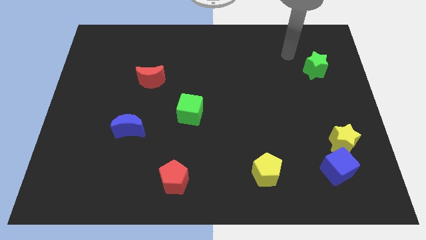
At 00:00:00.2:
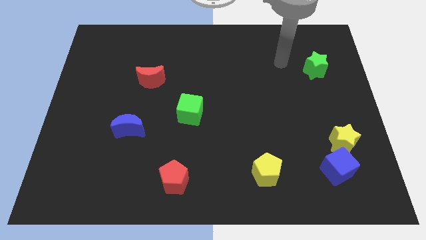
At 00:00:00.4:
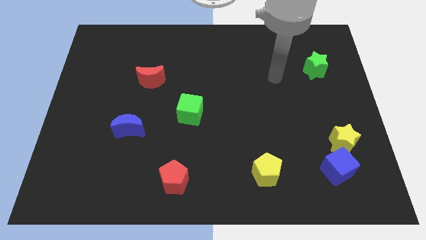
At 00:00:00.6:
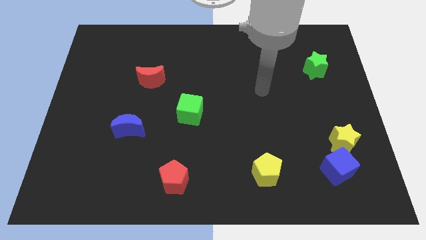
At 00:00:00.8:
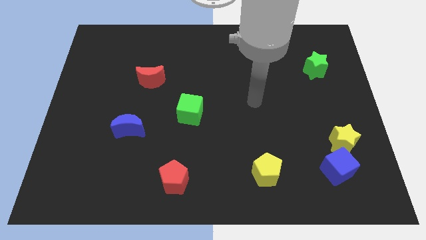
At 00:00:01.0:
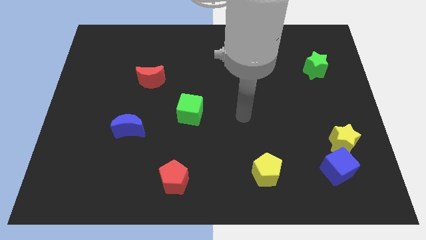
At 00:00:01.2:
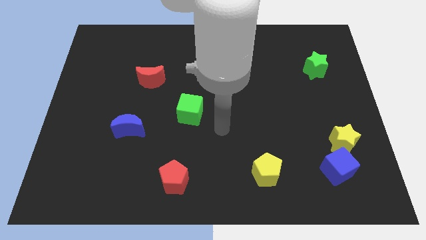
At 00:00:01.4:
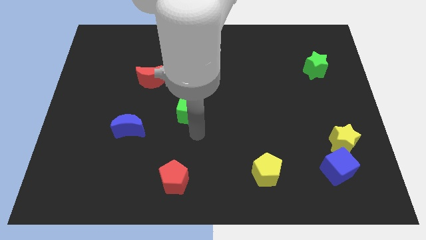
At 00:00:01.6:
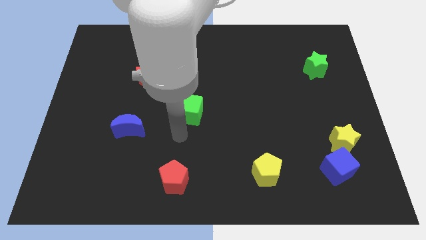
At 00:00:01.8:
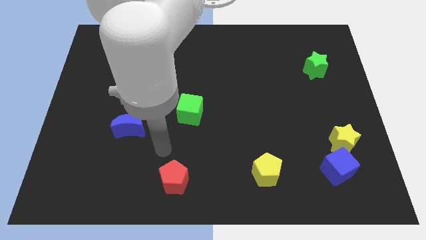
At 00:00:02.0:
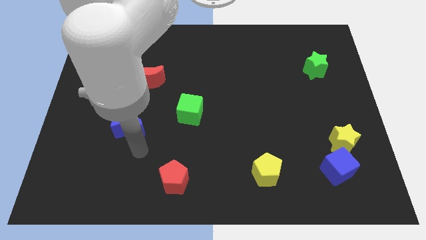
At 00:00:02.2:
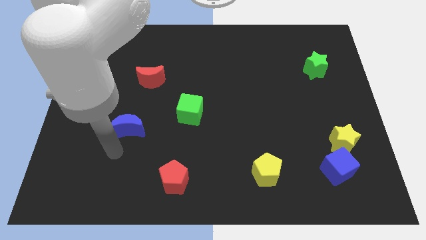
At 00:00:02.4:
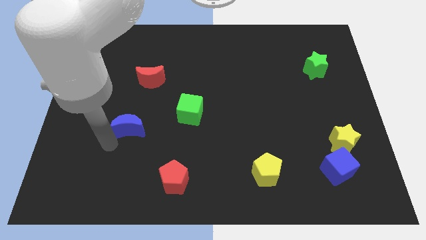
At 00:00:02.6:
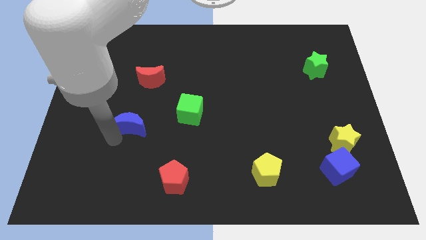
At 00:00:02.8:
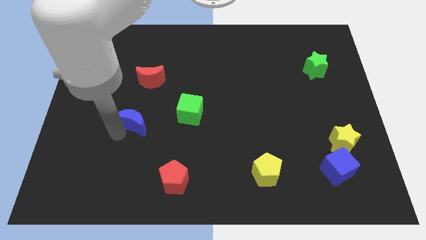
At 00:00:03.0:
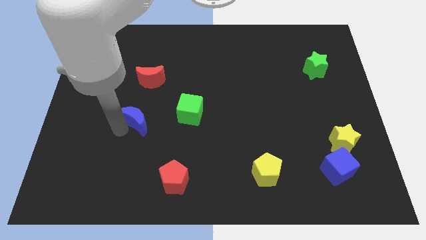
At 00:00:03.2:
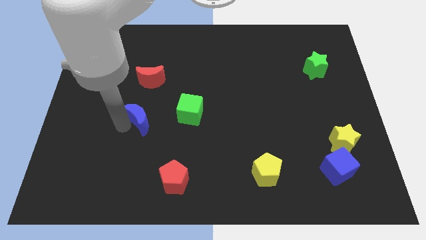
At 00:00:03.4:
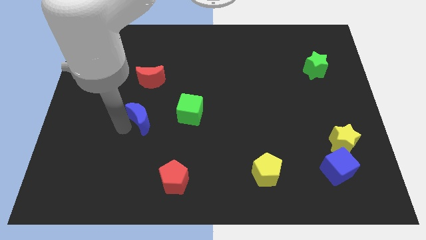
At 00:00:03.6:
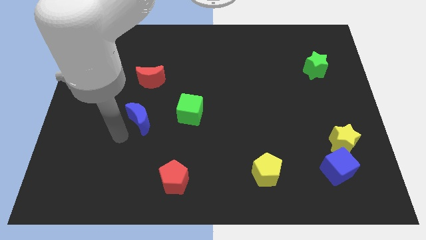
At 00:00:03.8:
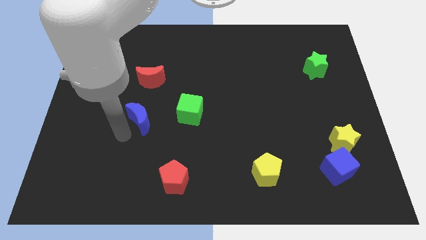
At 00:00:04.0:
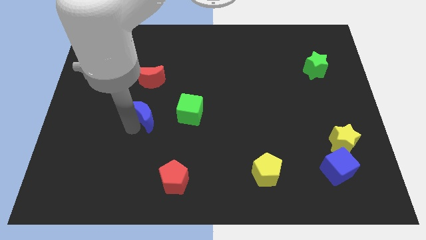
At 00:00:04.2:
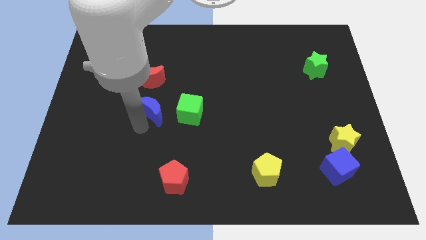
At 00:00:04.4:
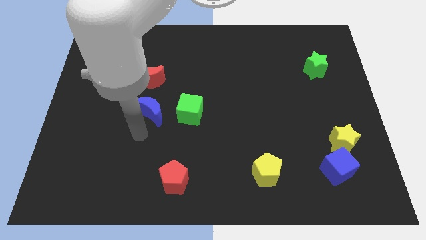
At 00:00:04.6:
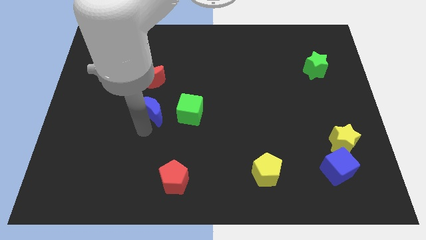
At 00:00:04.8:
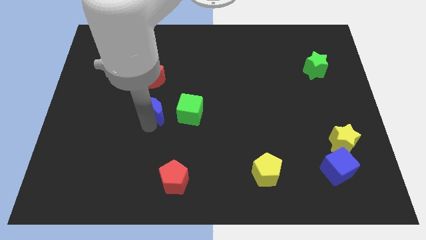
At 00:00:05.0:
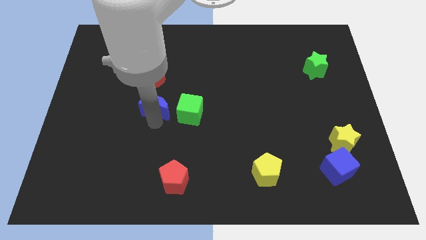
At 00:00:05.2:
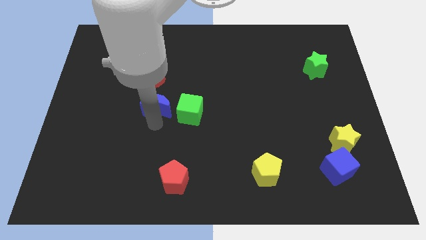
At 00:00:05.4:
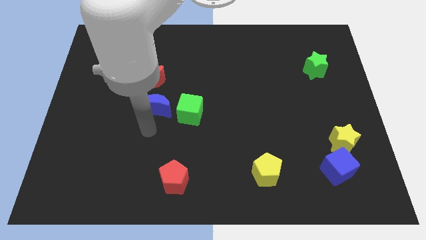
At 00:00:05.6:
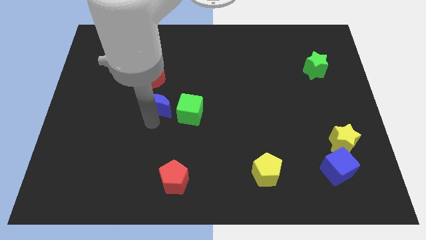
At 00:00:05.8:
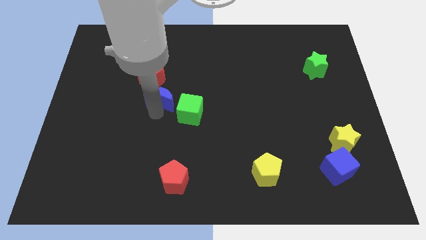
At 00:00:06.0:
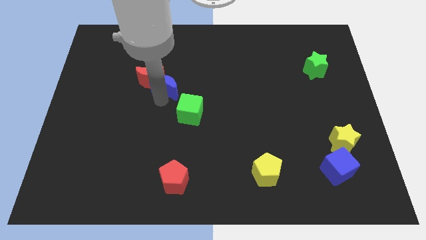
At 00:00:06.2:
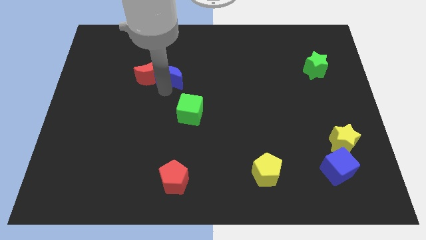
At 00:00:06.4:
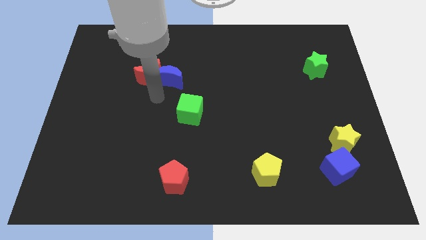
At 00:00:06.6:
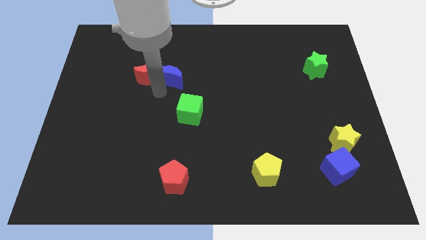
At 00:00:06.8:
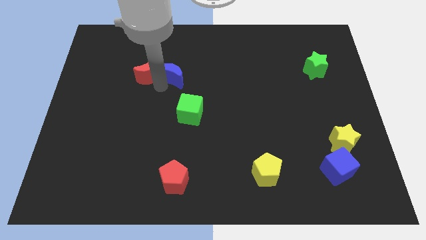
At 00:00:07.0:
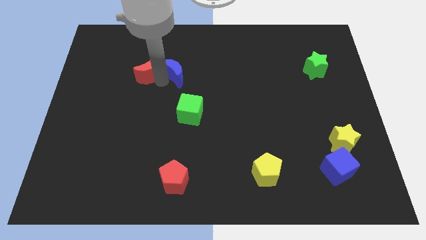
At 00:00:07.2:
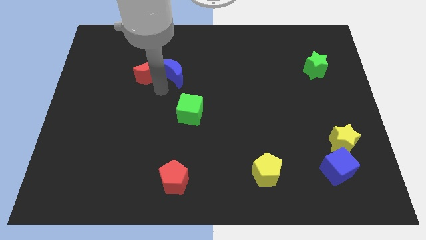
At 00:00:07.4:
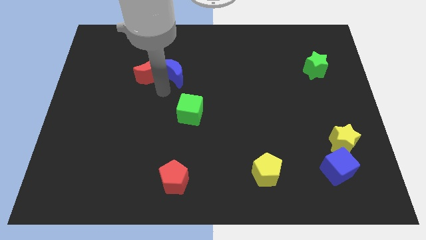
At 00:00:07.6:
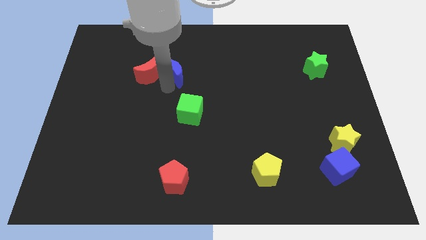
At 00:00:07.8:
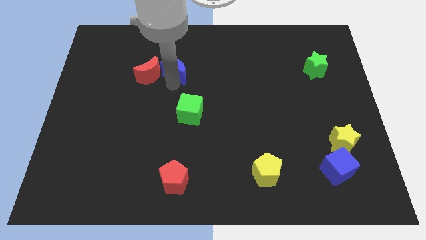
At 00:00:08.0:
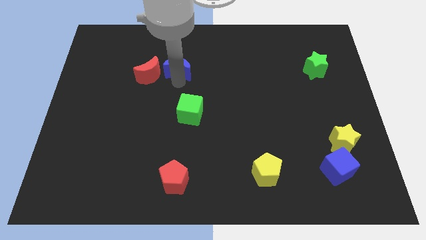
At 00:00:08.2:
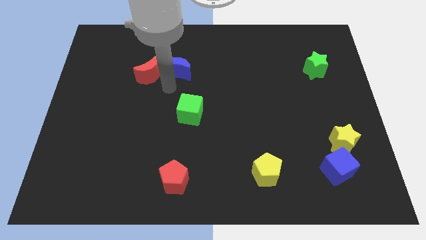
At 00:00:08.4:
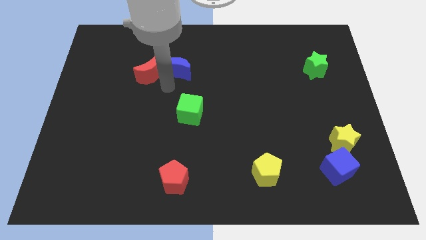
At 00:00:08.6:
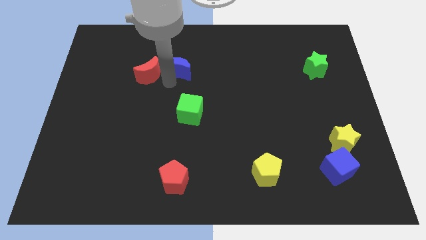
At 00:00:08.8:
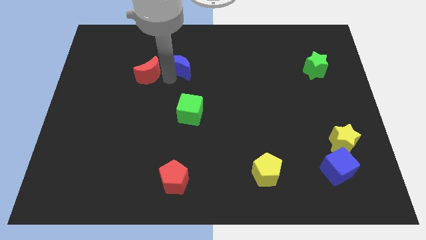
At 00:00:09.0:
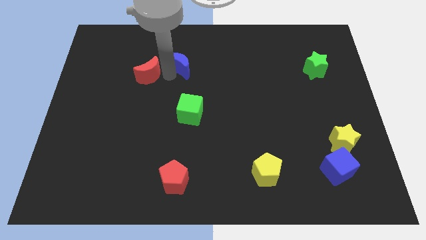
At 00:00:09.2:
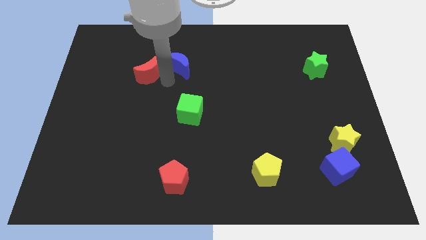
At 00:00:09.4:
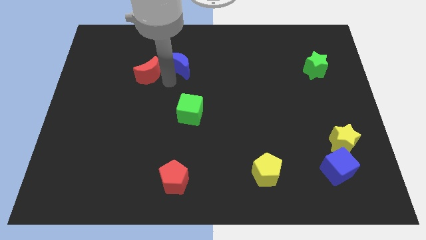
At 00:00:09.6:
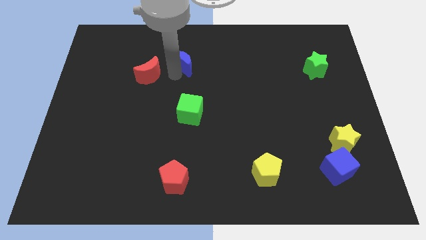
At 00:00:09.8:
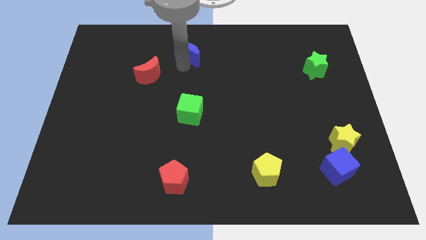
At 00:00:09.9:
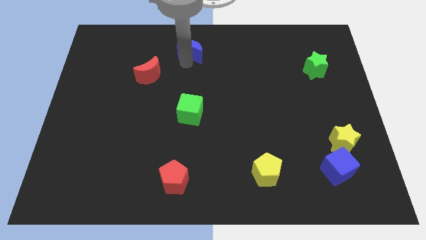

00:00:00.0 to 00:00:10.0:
push the blue moon to the towards your base
